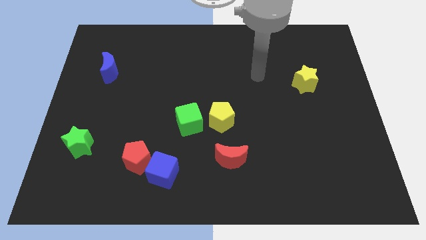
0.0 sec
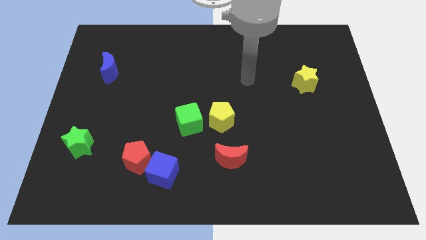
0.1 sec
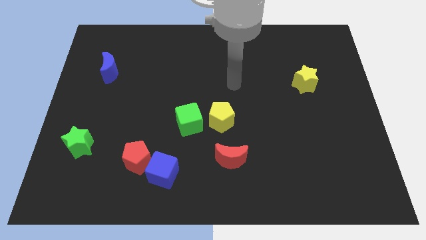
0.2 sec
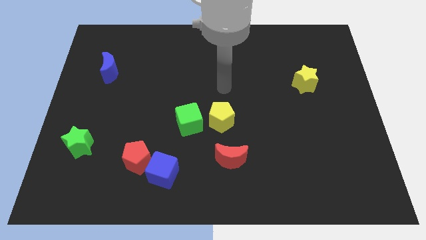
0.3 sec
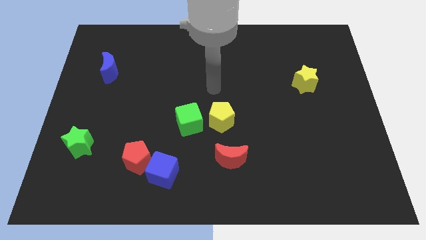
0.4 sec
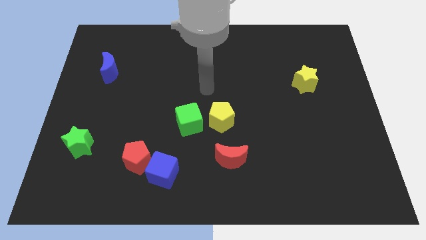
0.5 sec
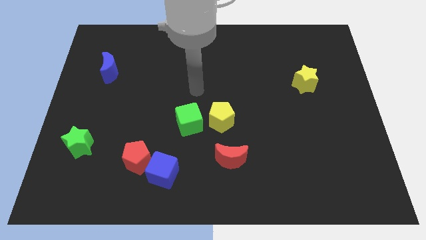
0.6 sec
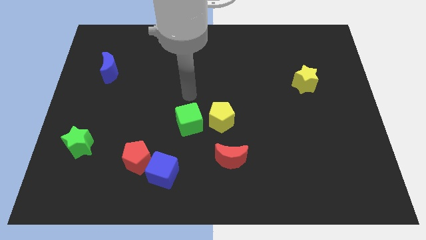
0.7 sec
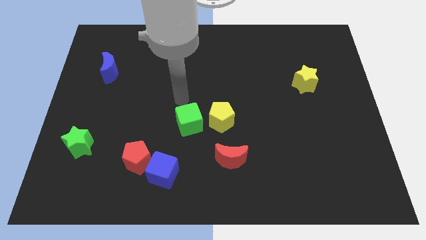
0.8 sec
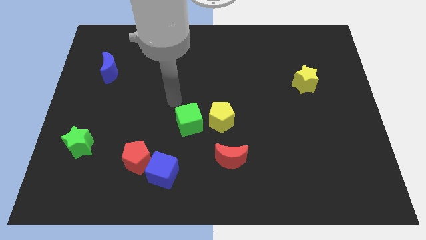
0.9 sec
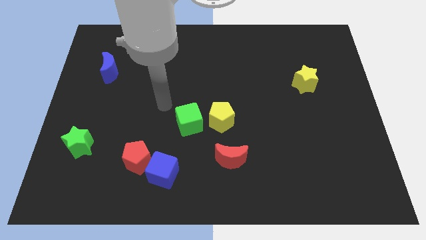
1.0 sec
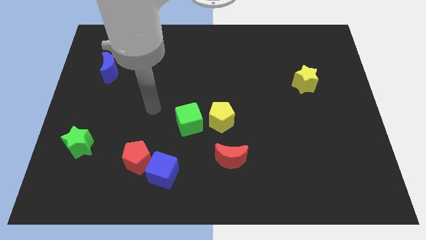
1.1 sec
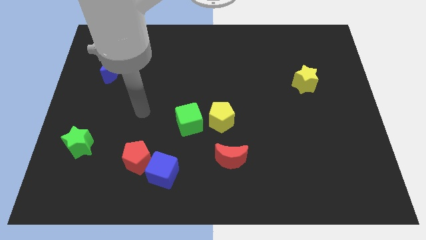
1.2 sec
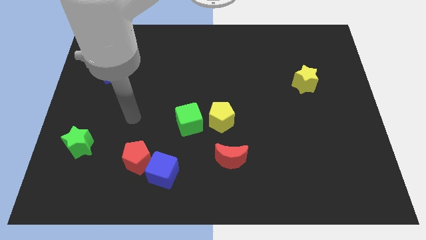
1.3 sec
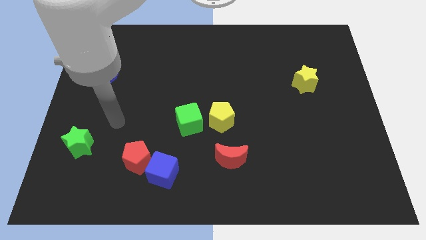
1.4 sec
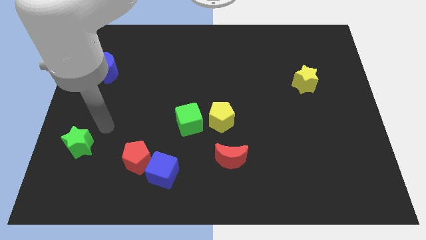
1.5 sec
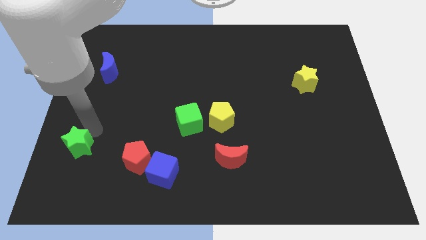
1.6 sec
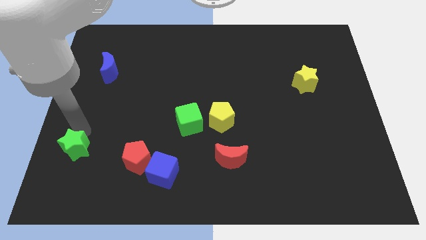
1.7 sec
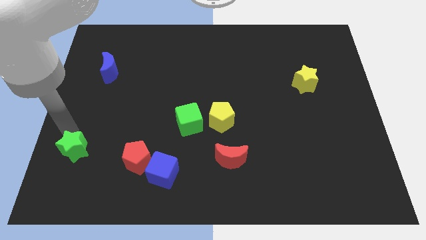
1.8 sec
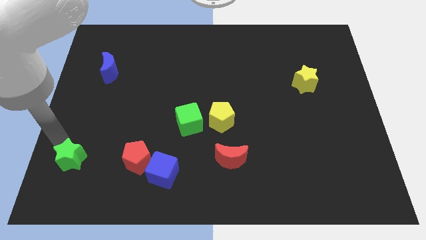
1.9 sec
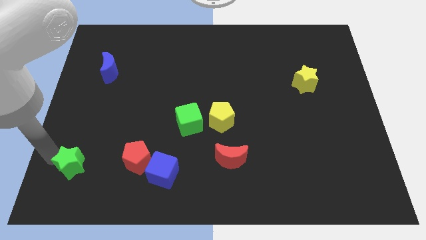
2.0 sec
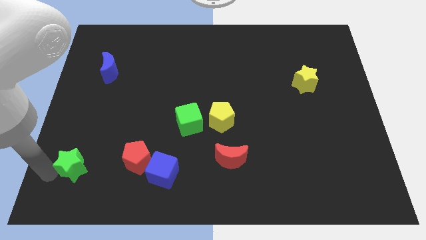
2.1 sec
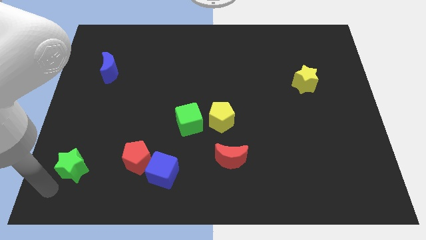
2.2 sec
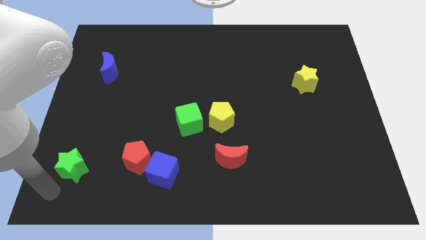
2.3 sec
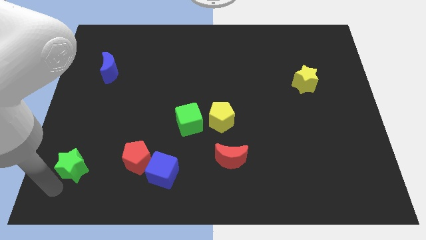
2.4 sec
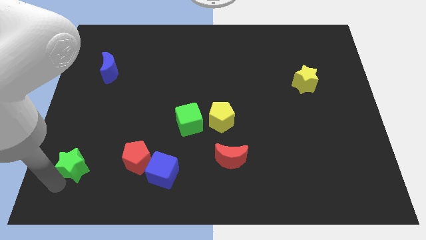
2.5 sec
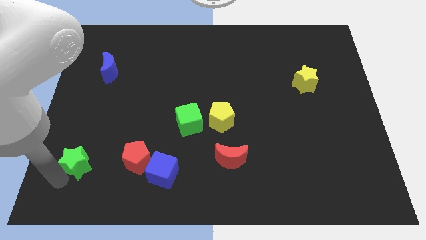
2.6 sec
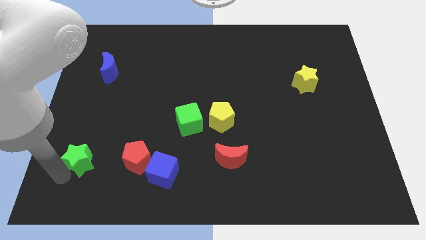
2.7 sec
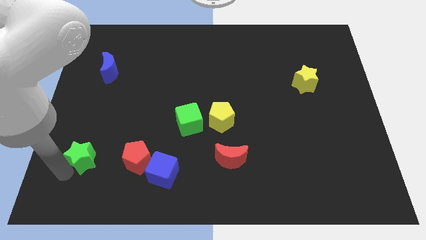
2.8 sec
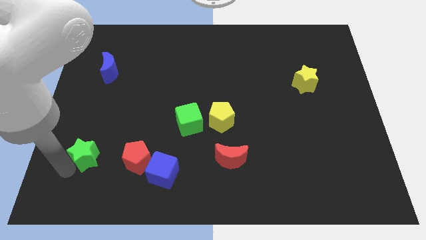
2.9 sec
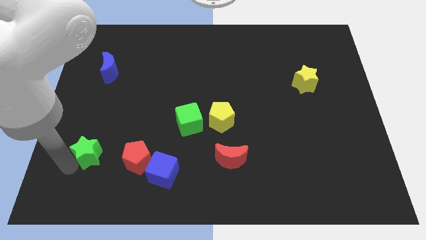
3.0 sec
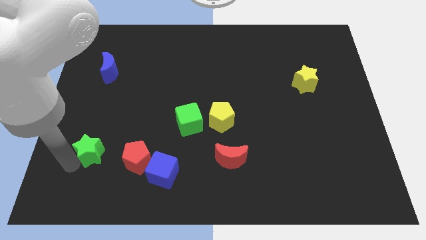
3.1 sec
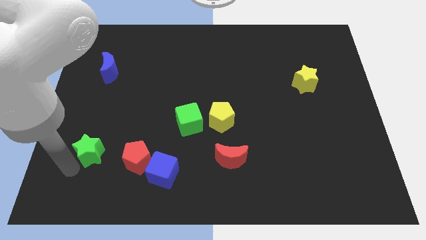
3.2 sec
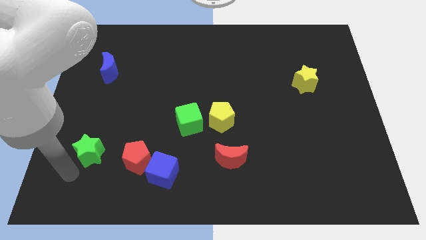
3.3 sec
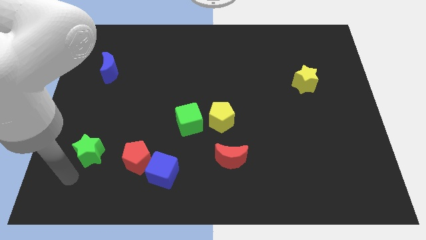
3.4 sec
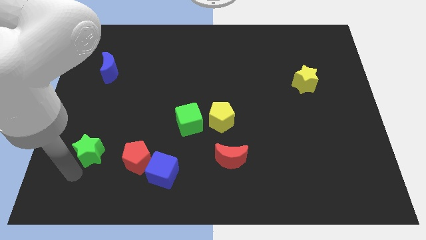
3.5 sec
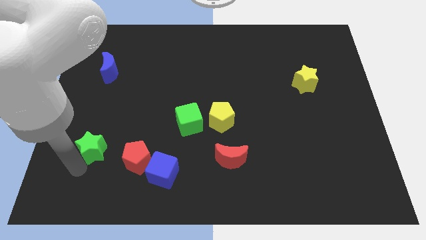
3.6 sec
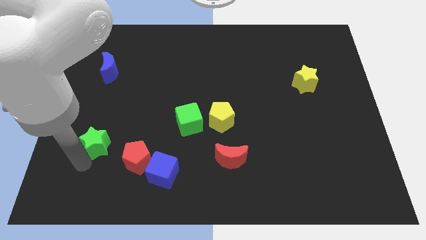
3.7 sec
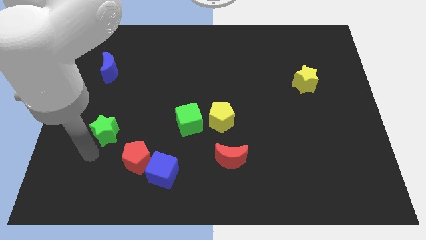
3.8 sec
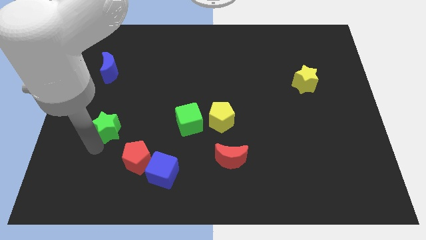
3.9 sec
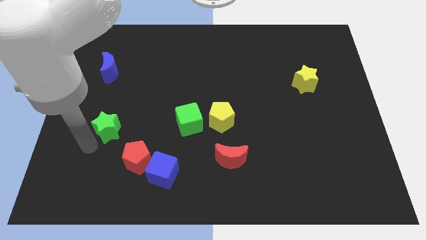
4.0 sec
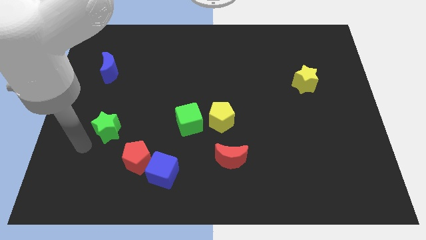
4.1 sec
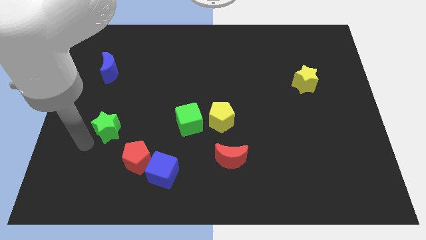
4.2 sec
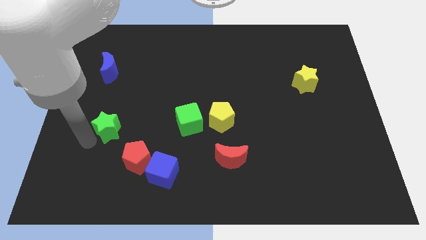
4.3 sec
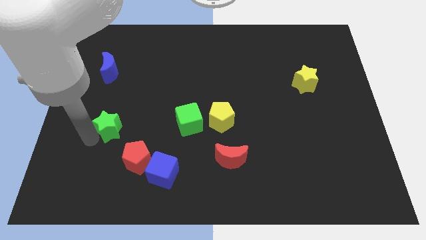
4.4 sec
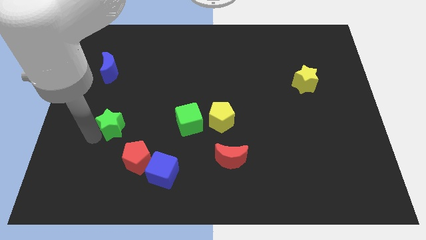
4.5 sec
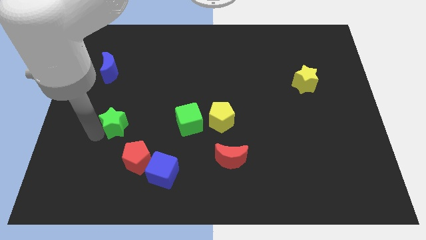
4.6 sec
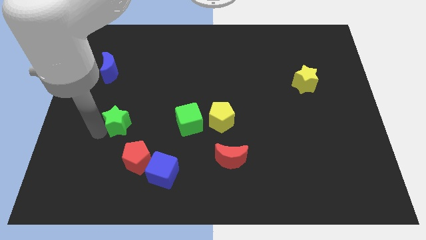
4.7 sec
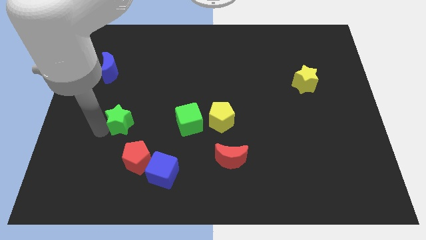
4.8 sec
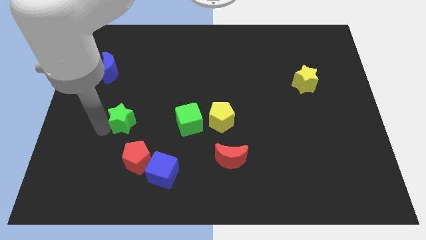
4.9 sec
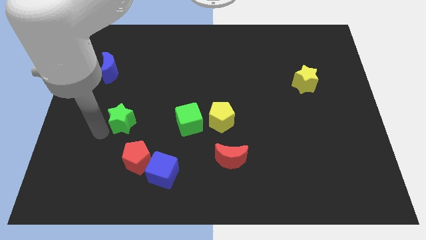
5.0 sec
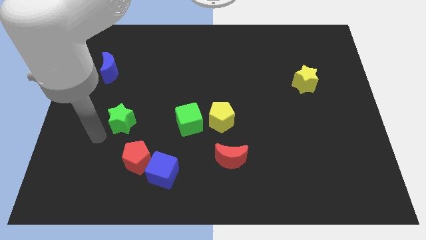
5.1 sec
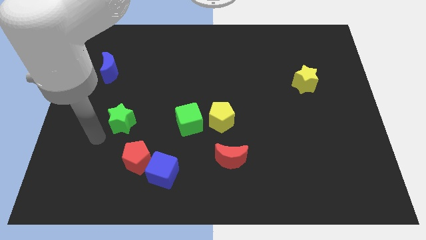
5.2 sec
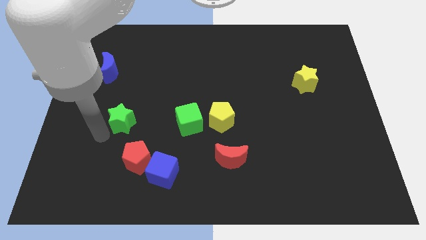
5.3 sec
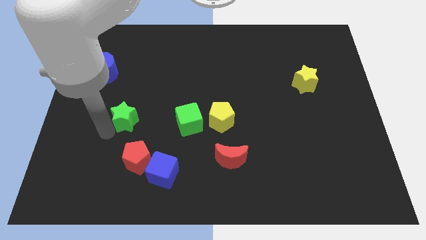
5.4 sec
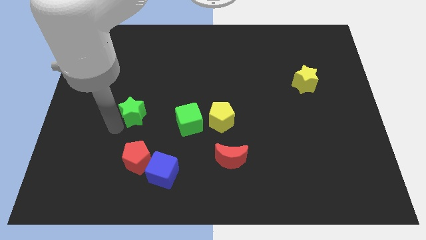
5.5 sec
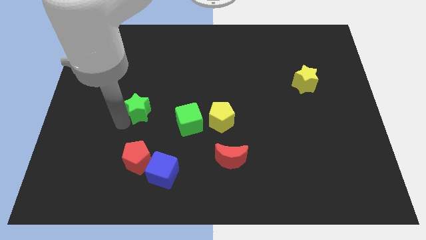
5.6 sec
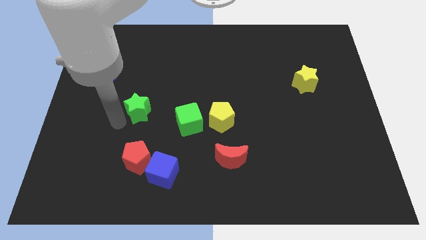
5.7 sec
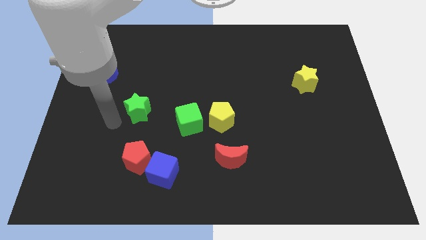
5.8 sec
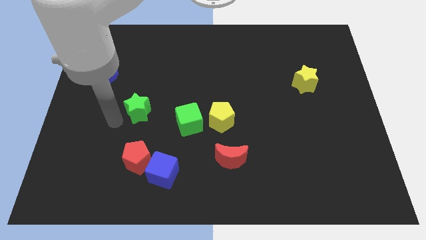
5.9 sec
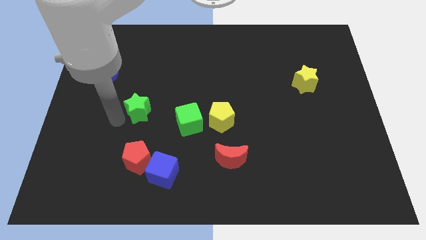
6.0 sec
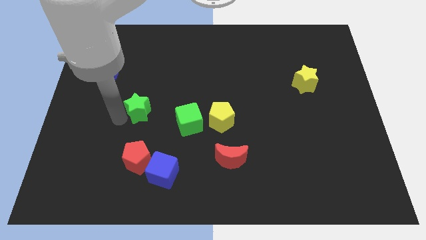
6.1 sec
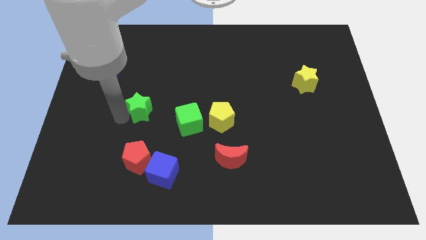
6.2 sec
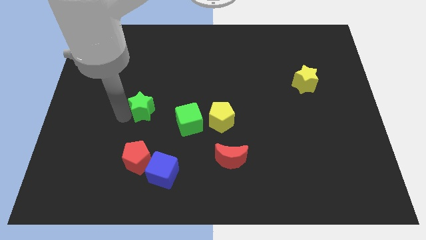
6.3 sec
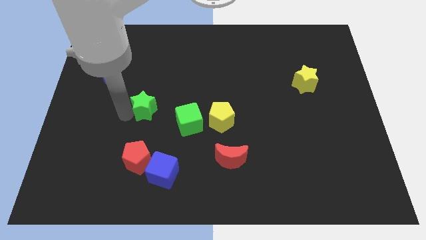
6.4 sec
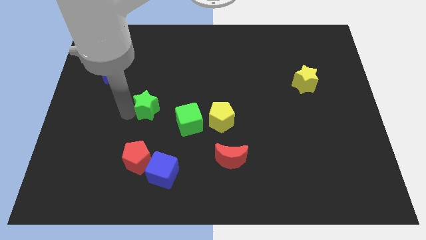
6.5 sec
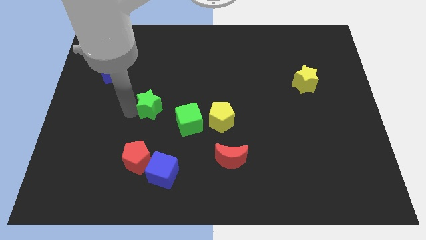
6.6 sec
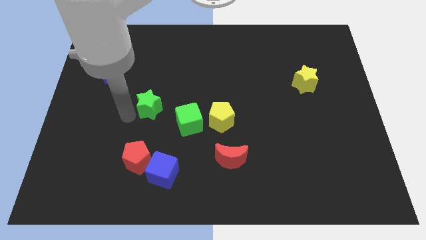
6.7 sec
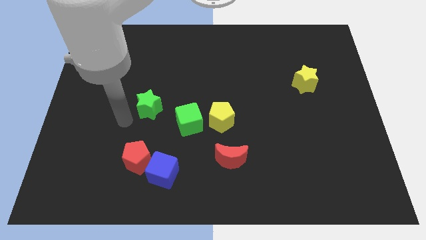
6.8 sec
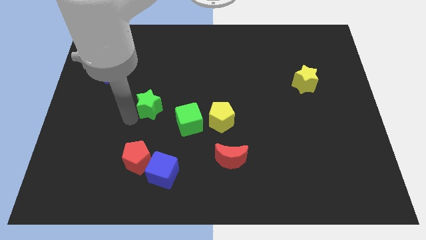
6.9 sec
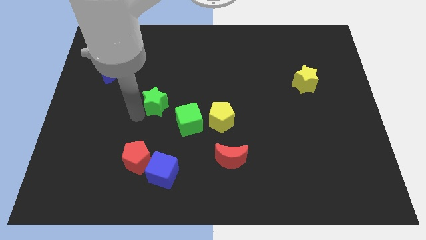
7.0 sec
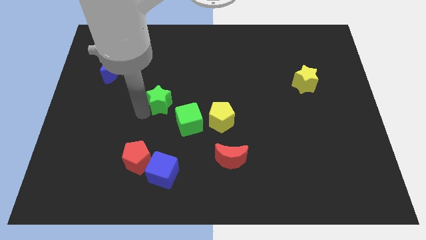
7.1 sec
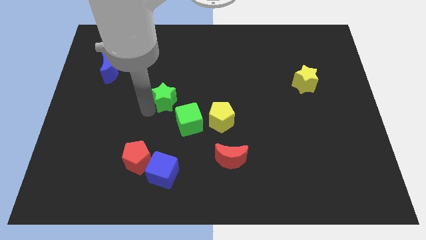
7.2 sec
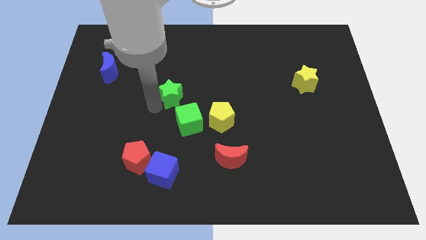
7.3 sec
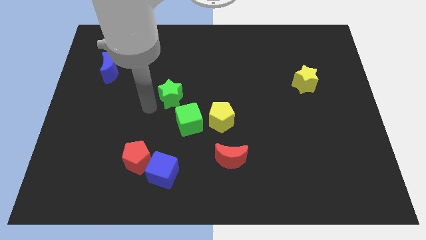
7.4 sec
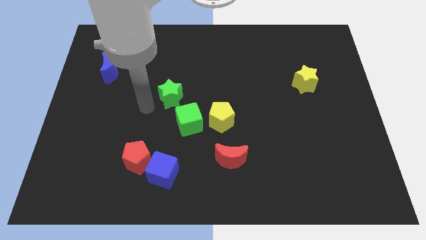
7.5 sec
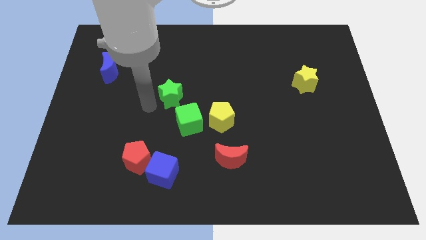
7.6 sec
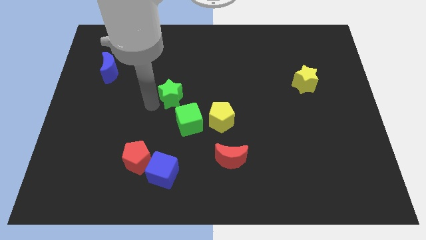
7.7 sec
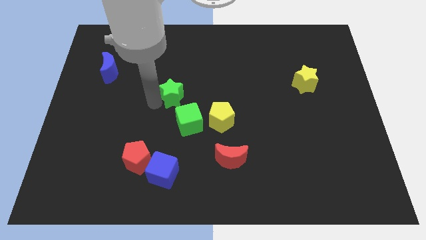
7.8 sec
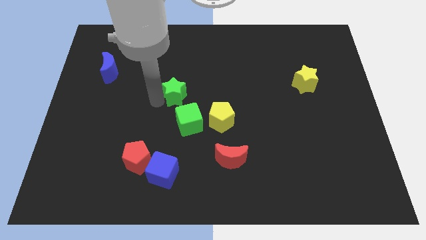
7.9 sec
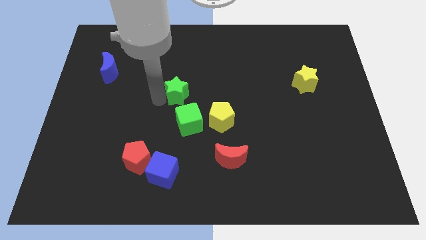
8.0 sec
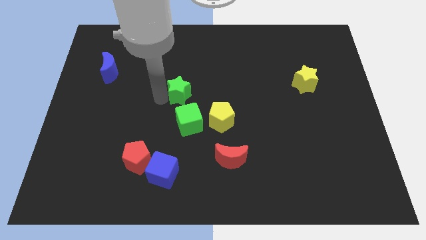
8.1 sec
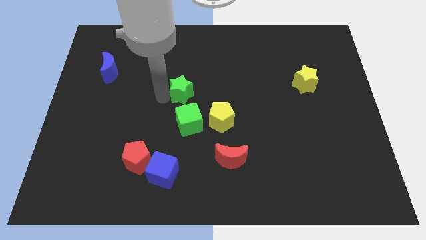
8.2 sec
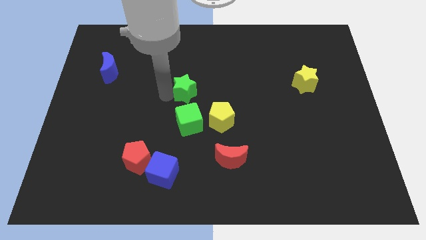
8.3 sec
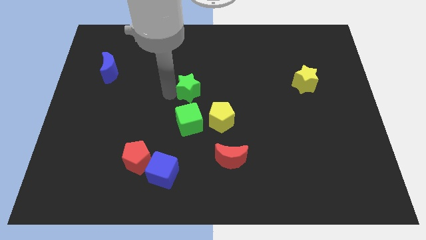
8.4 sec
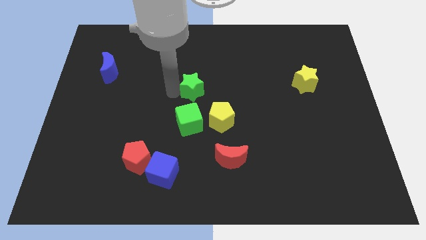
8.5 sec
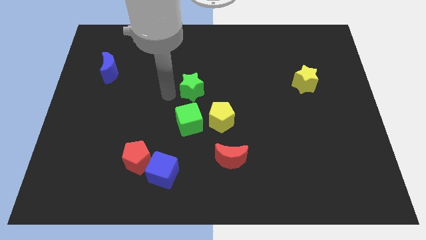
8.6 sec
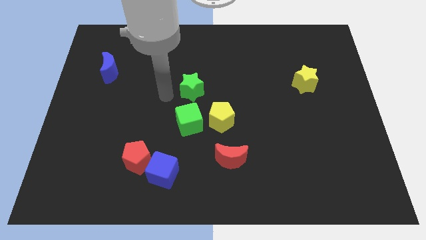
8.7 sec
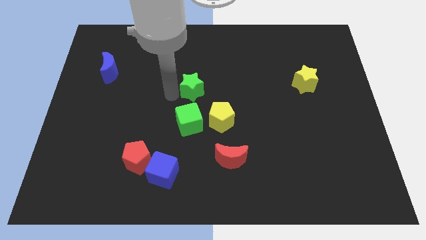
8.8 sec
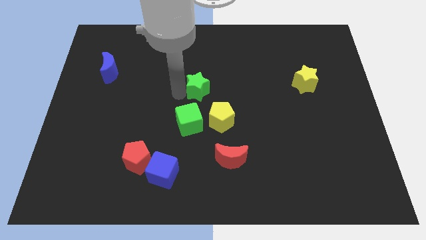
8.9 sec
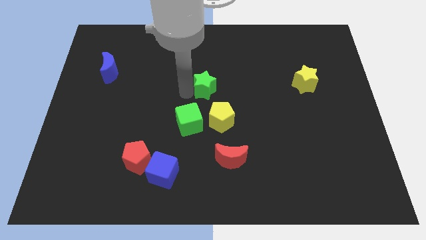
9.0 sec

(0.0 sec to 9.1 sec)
push the green star to the top of the yellow pentagon
